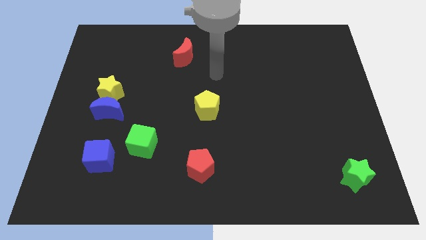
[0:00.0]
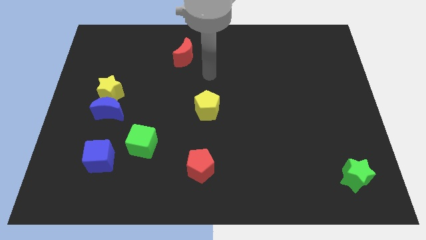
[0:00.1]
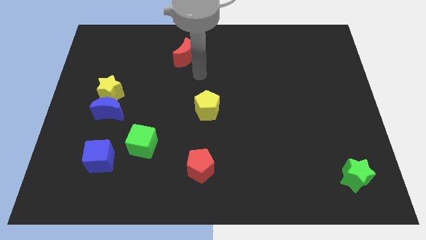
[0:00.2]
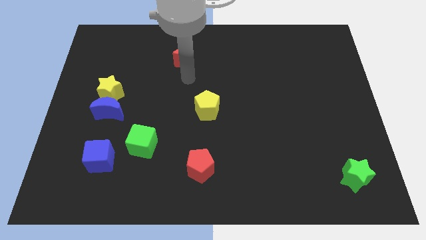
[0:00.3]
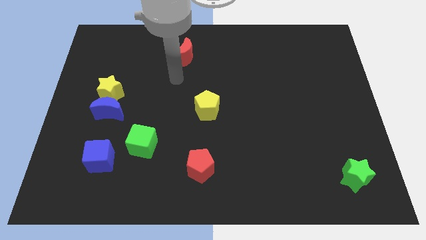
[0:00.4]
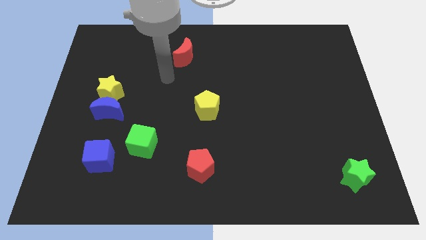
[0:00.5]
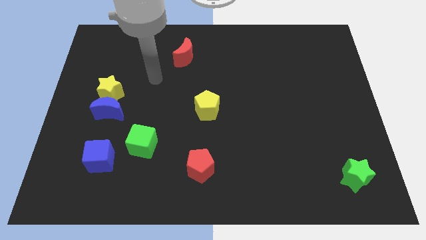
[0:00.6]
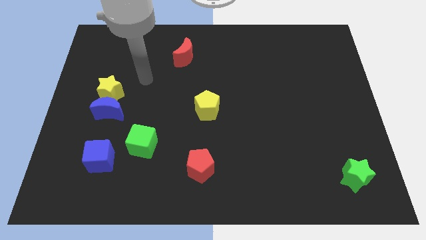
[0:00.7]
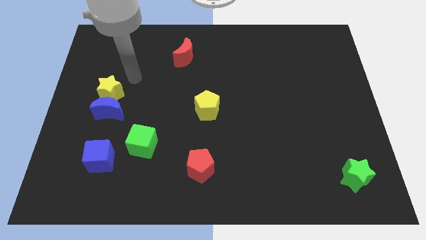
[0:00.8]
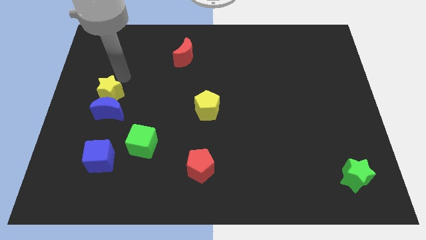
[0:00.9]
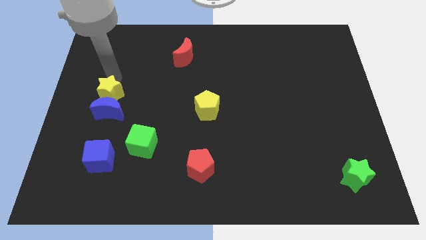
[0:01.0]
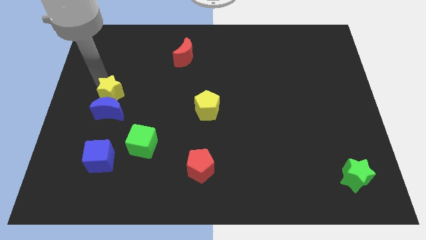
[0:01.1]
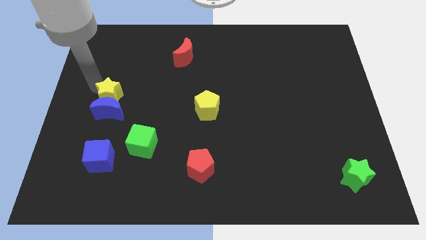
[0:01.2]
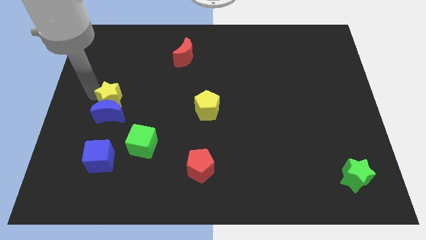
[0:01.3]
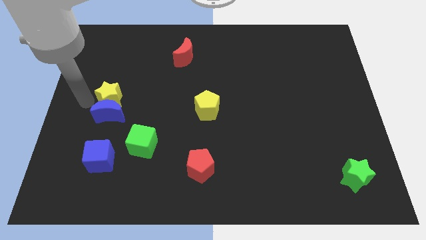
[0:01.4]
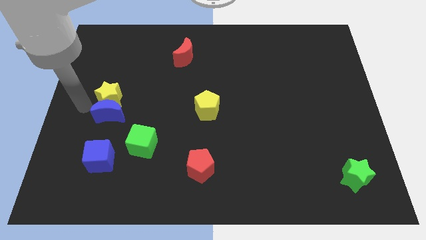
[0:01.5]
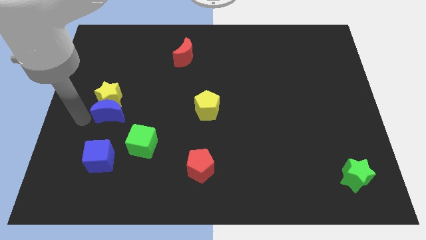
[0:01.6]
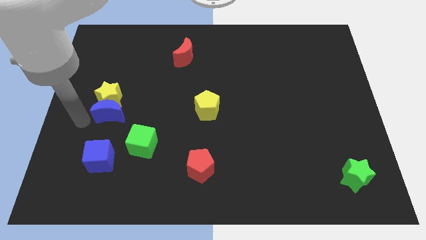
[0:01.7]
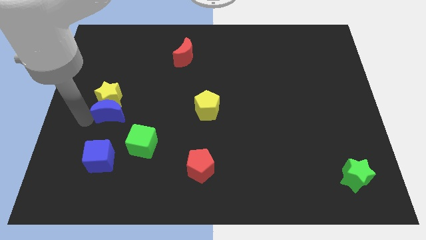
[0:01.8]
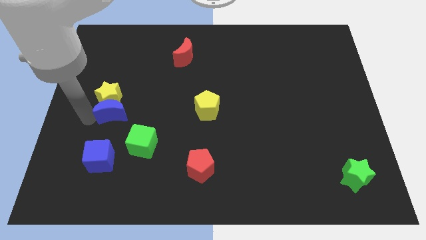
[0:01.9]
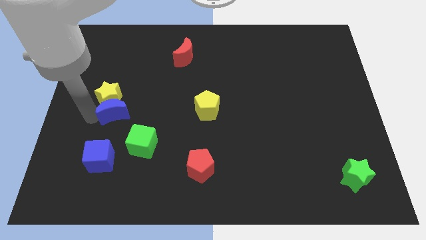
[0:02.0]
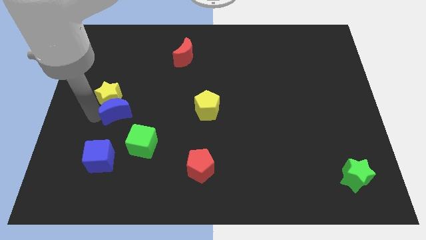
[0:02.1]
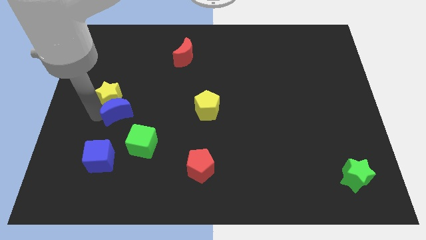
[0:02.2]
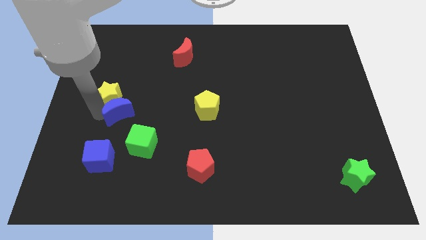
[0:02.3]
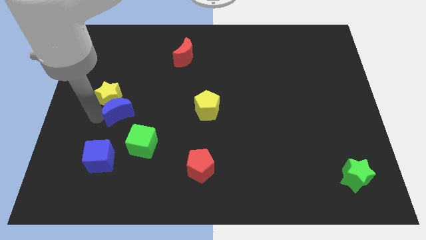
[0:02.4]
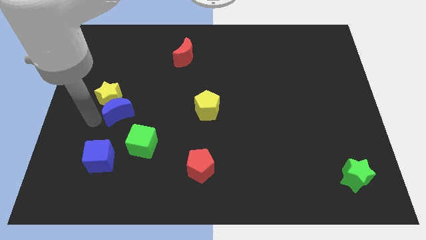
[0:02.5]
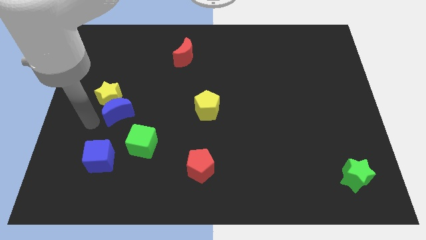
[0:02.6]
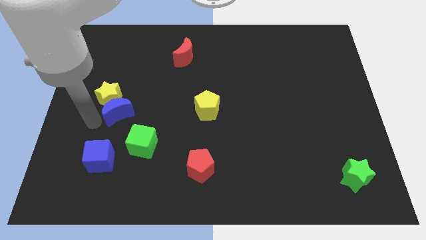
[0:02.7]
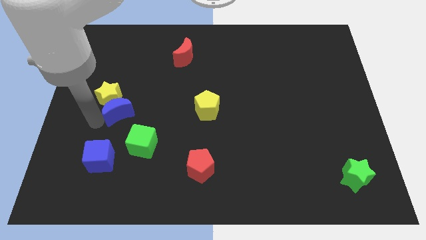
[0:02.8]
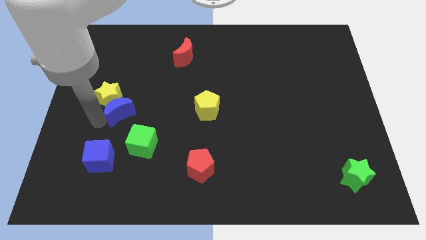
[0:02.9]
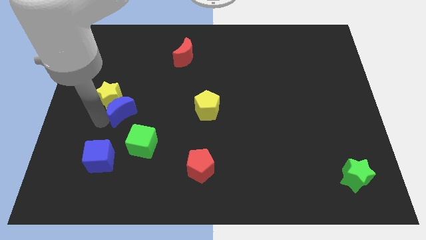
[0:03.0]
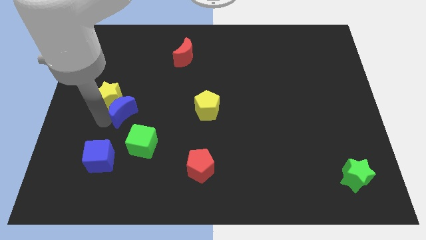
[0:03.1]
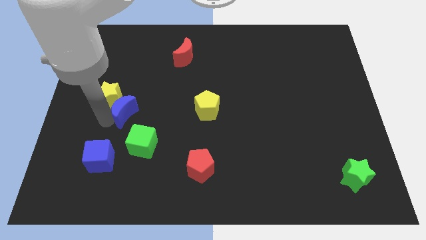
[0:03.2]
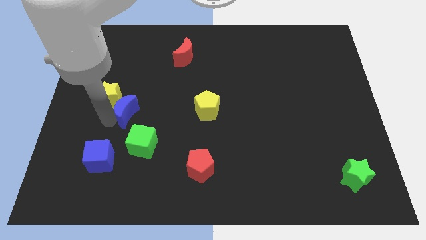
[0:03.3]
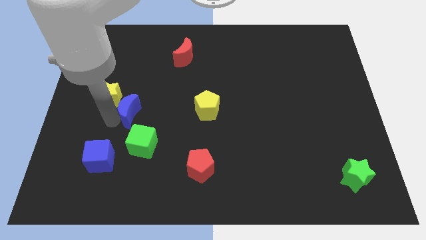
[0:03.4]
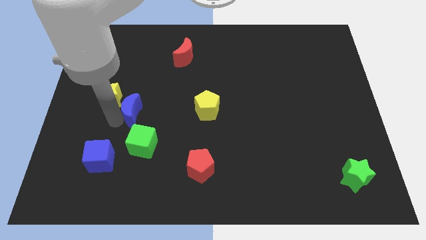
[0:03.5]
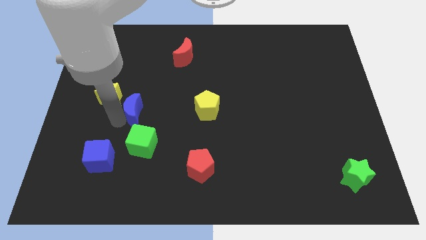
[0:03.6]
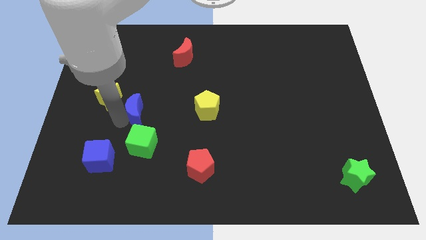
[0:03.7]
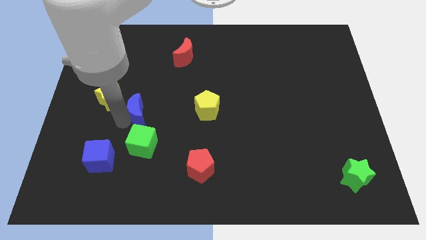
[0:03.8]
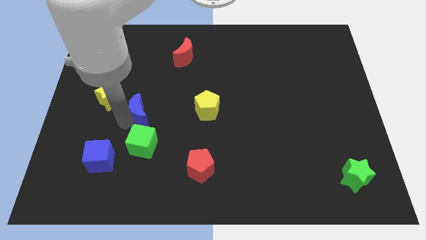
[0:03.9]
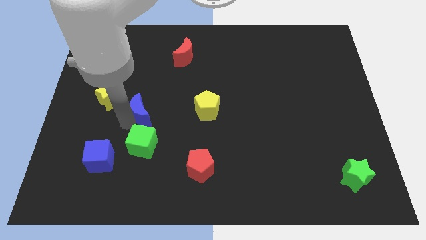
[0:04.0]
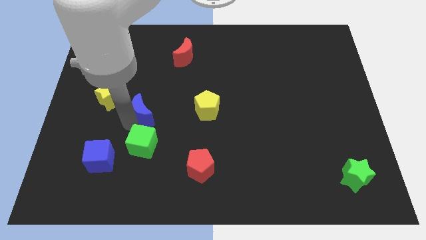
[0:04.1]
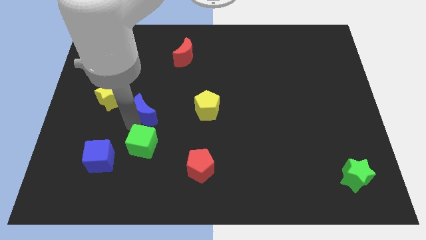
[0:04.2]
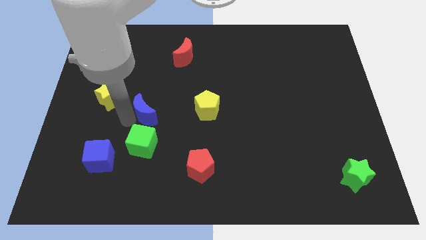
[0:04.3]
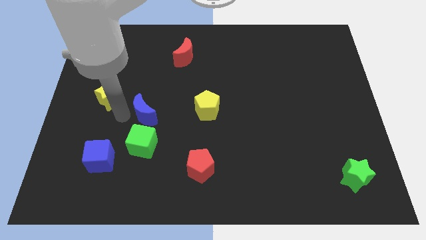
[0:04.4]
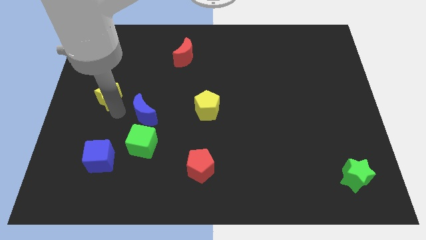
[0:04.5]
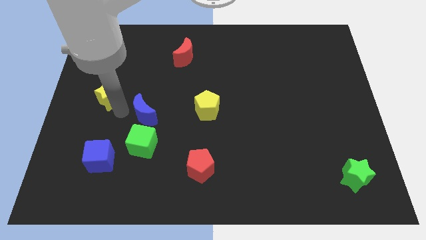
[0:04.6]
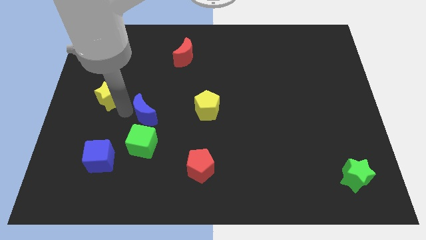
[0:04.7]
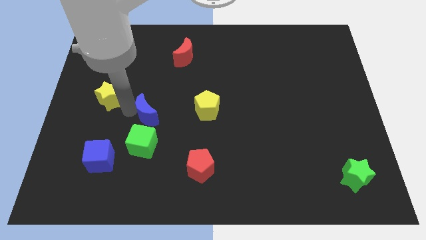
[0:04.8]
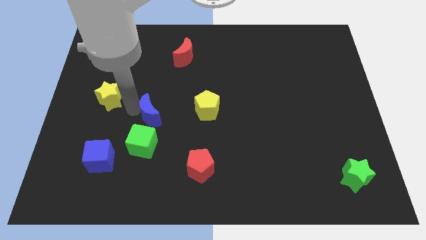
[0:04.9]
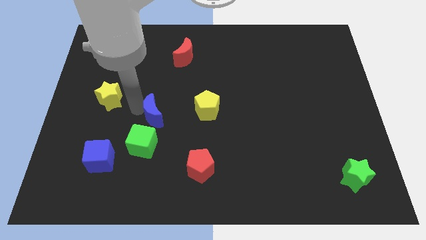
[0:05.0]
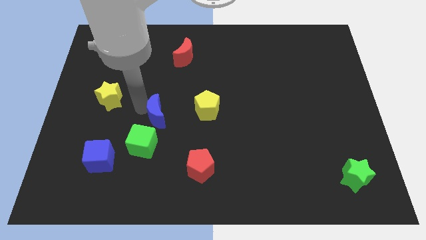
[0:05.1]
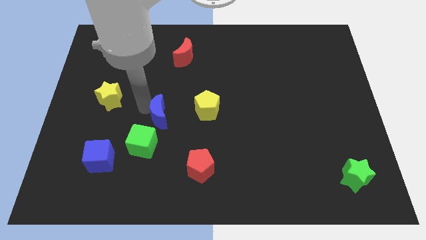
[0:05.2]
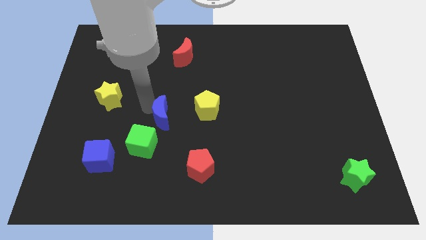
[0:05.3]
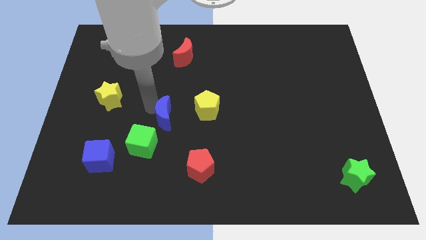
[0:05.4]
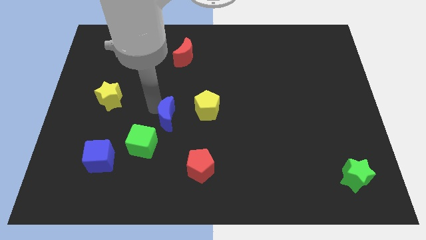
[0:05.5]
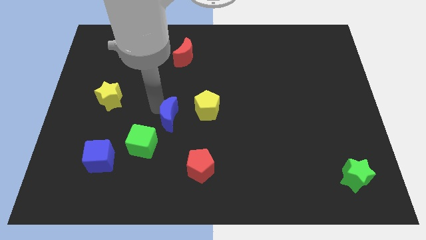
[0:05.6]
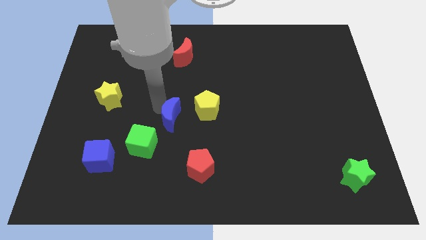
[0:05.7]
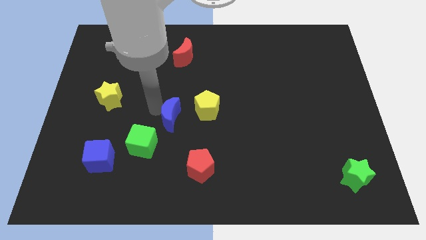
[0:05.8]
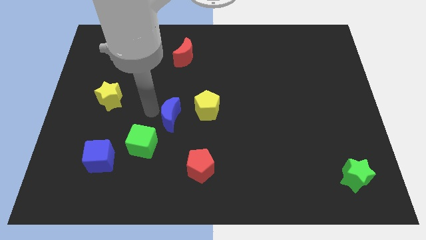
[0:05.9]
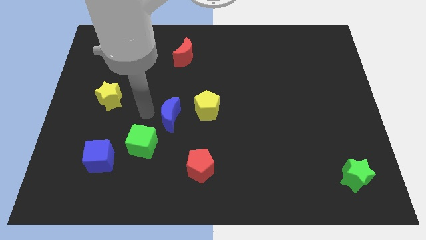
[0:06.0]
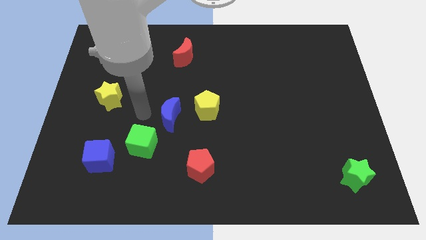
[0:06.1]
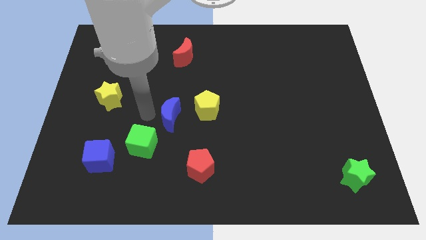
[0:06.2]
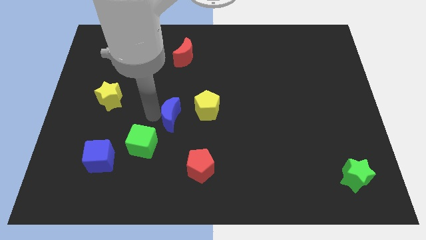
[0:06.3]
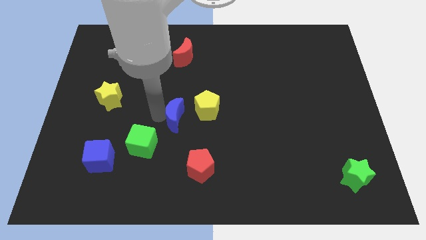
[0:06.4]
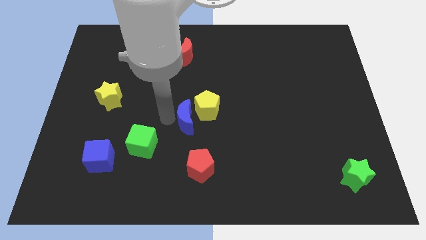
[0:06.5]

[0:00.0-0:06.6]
push the blue moon to the yellow pentagon
